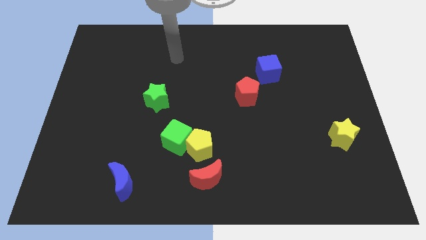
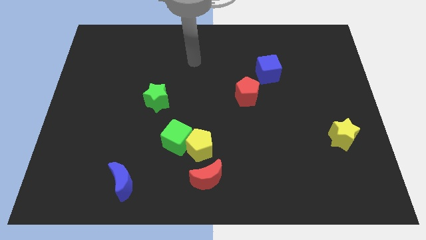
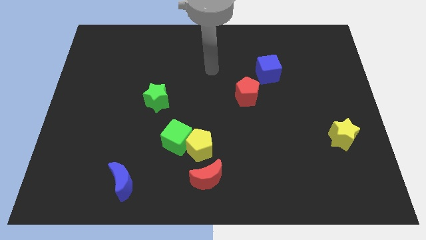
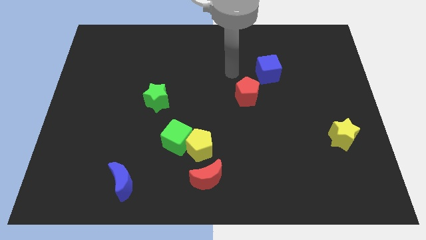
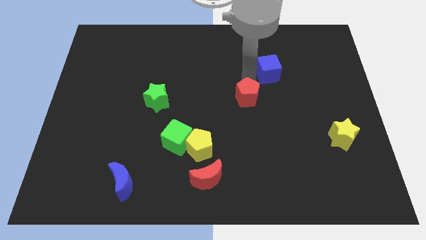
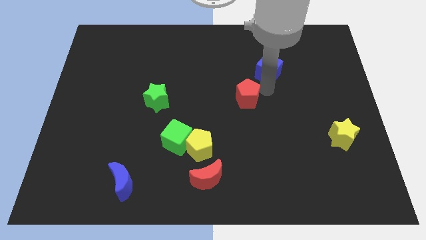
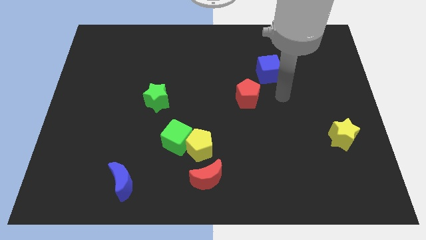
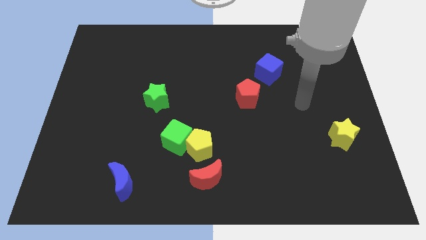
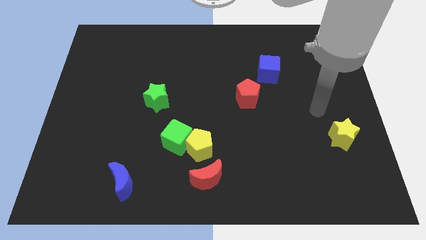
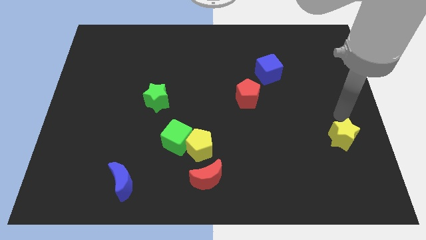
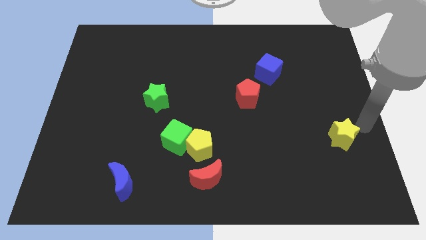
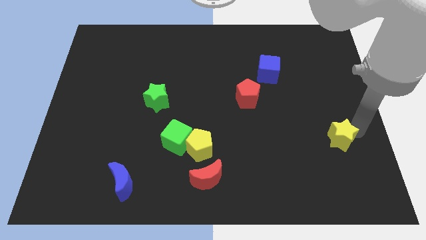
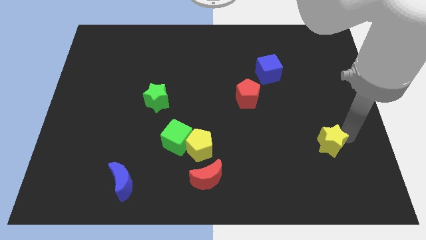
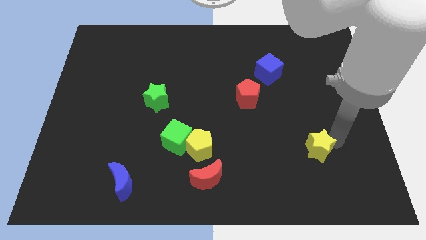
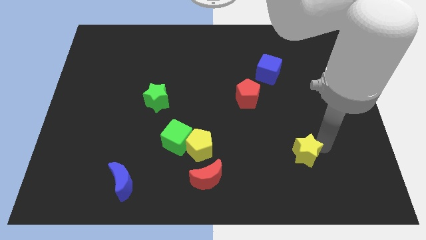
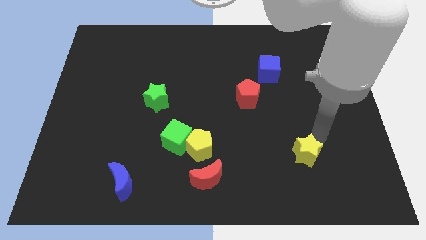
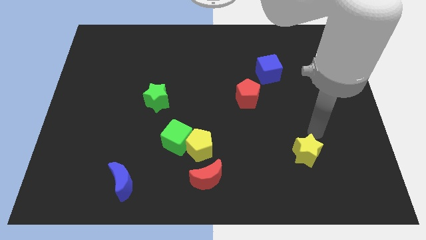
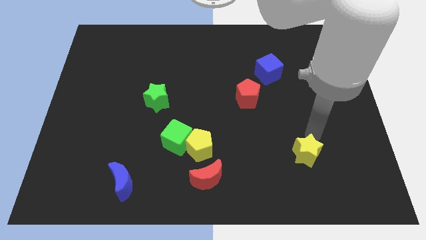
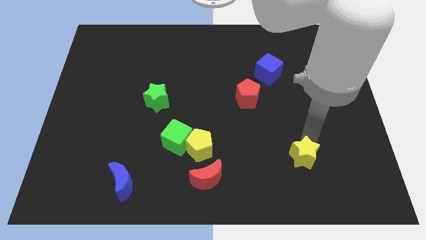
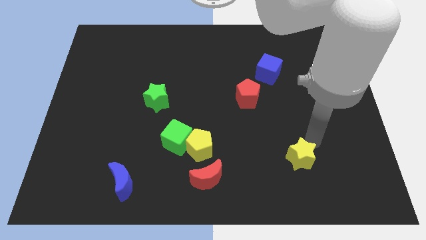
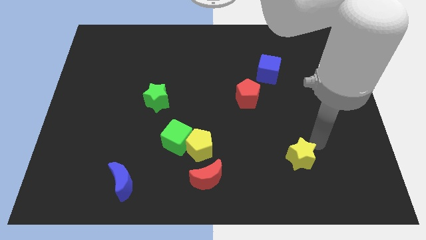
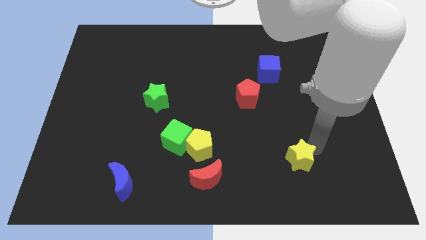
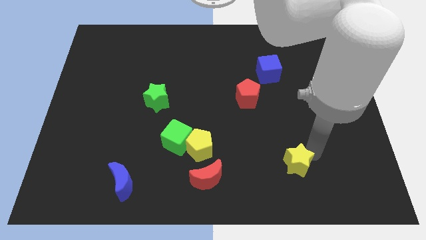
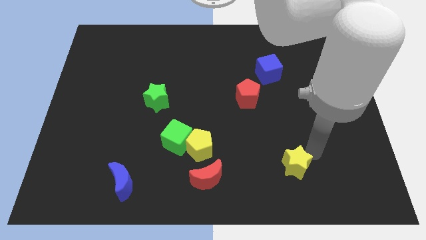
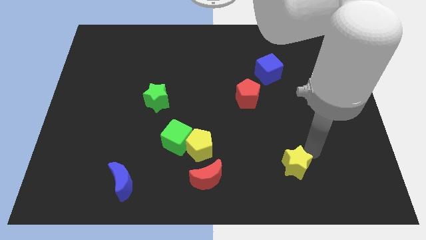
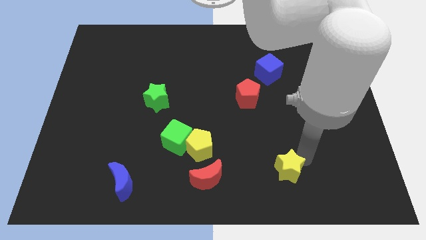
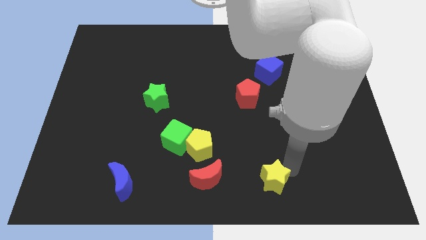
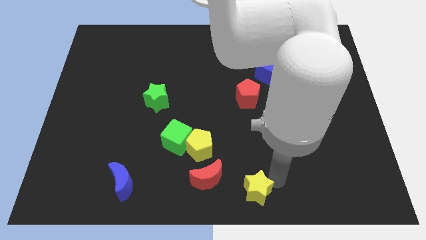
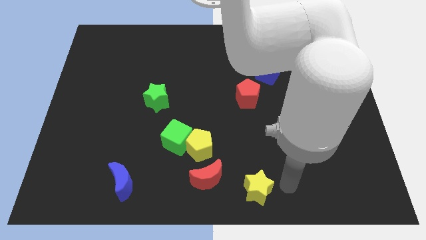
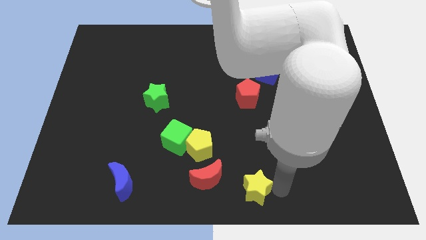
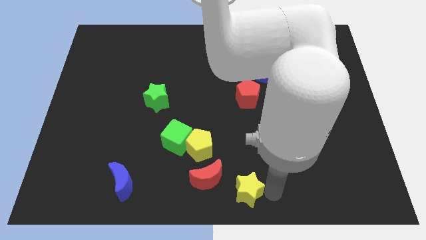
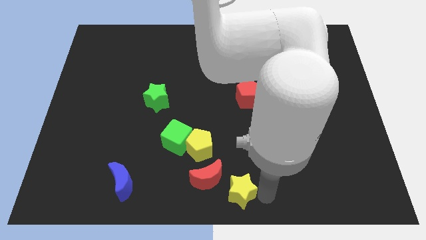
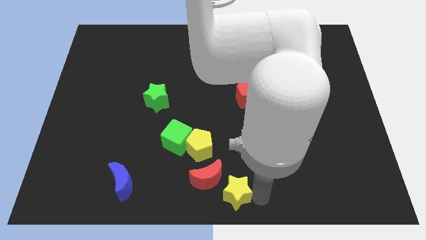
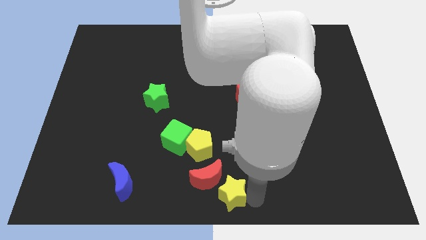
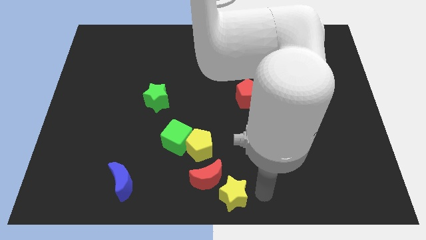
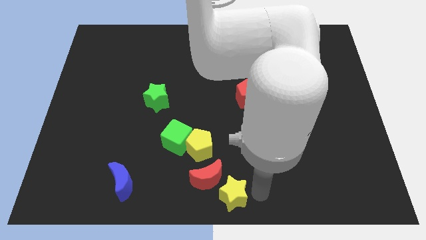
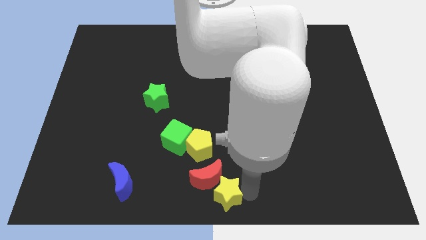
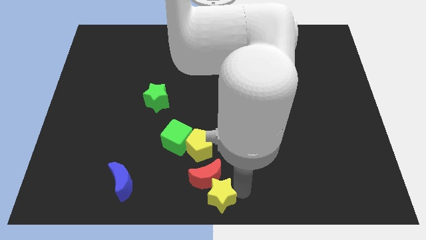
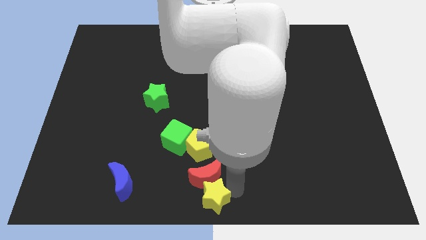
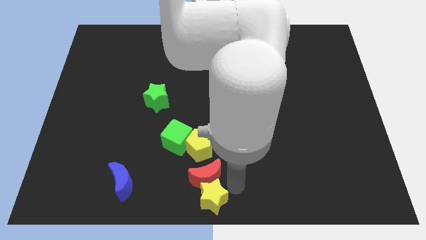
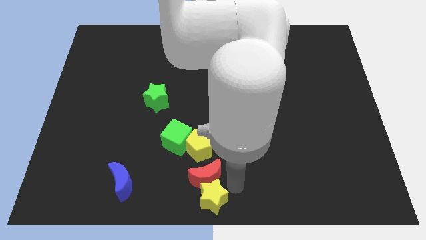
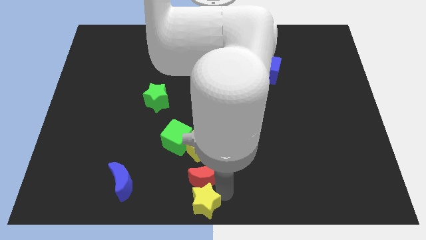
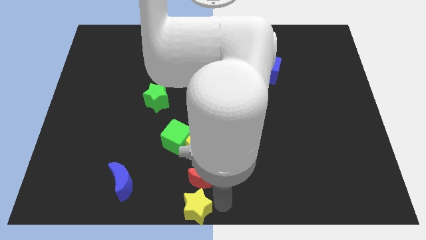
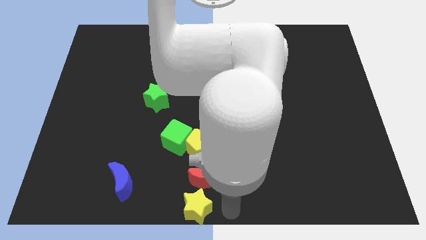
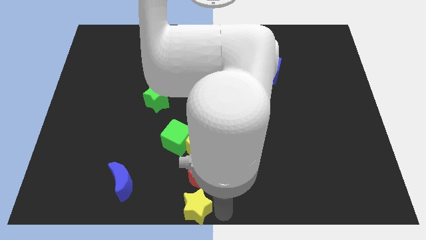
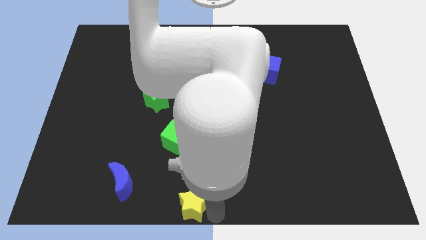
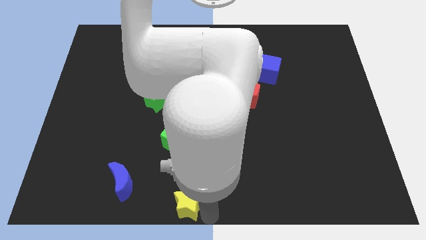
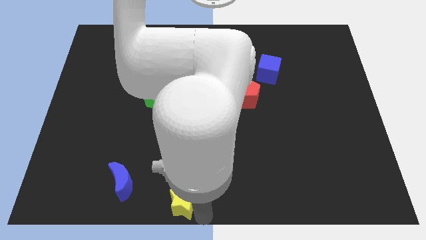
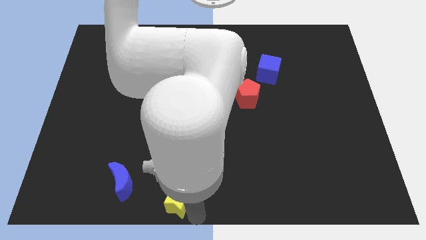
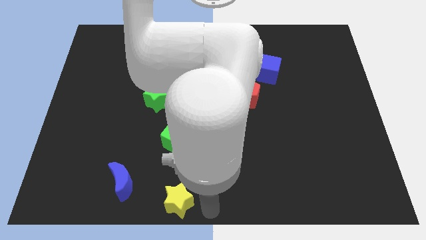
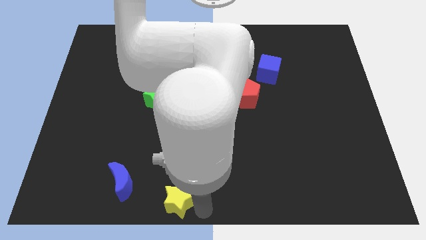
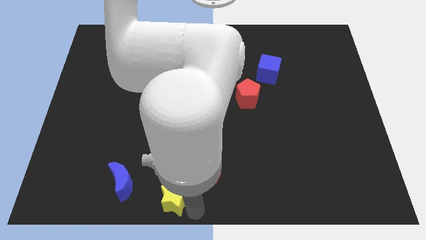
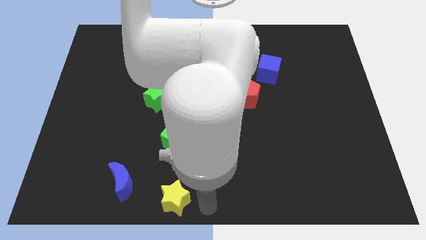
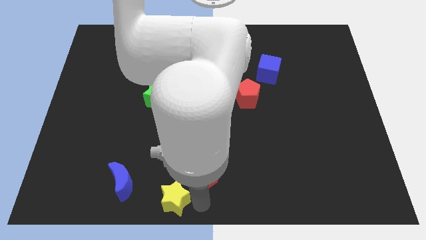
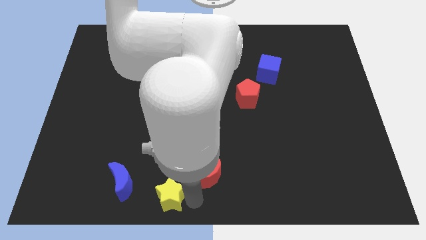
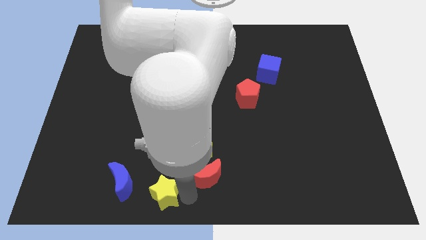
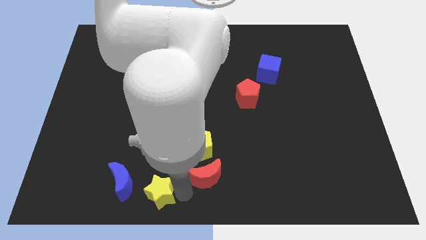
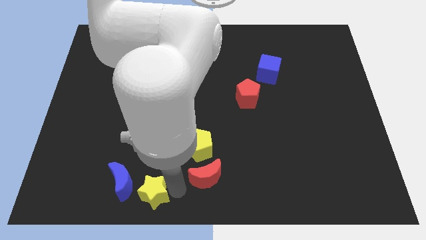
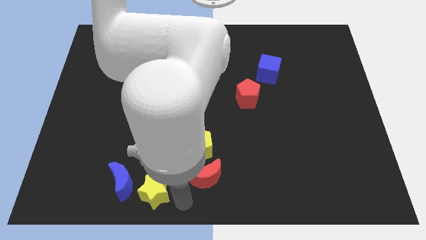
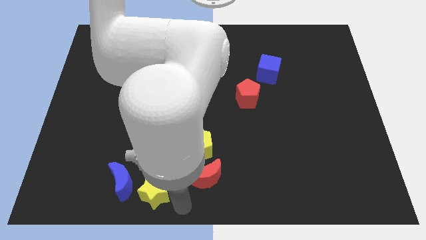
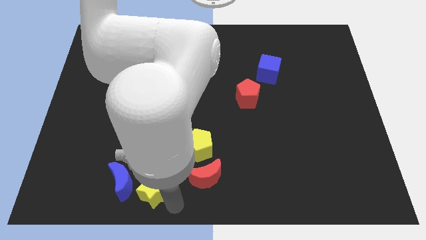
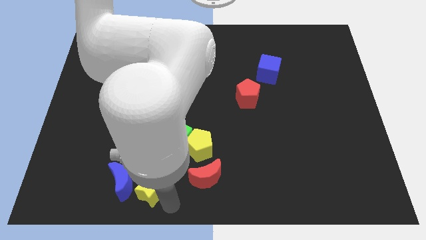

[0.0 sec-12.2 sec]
put the yellow star next to the blue moon

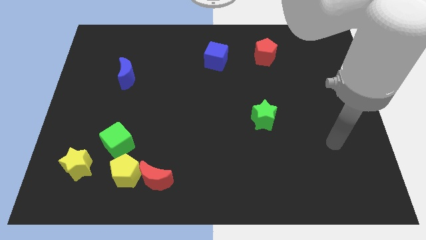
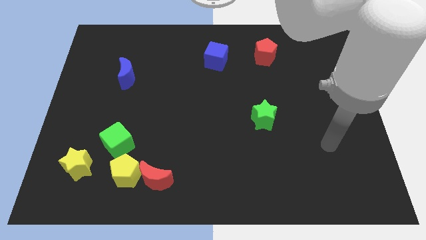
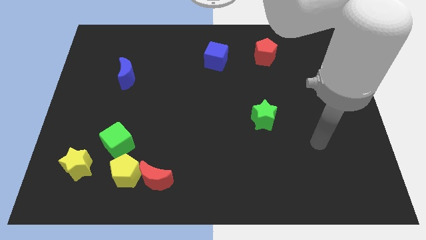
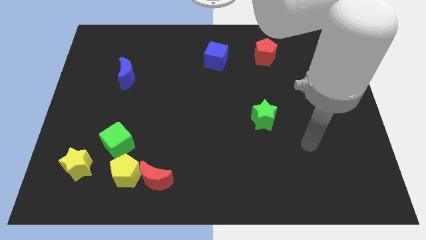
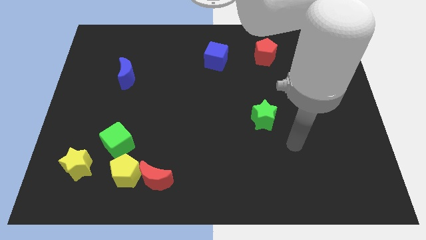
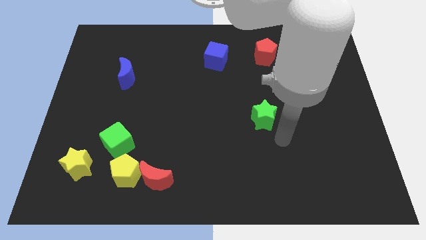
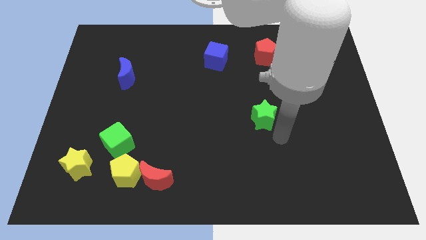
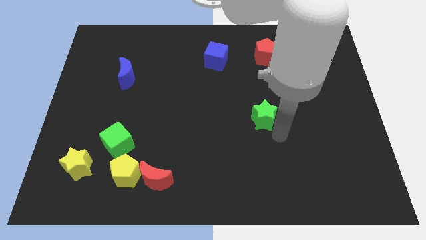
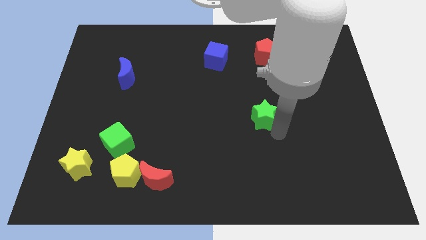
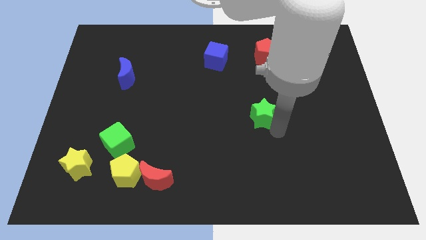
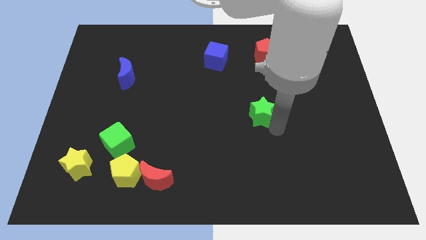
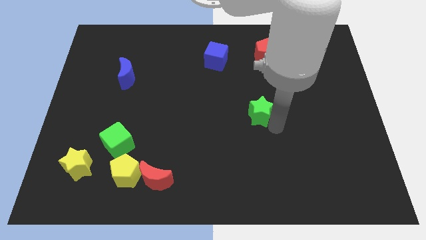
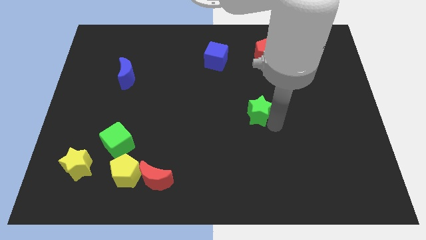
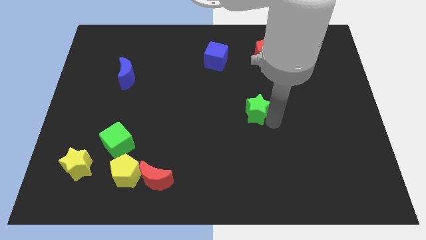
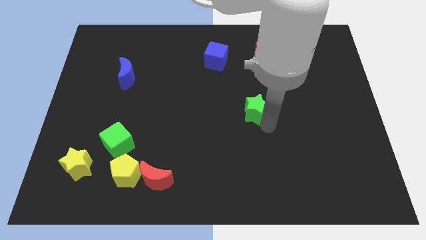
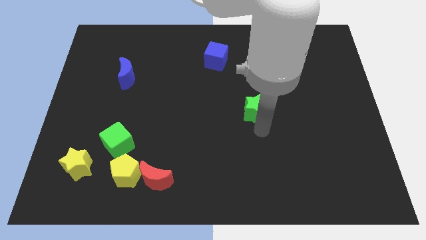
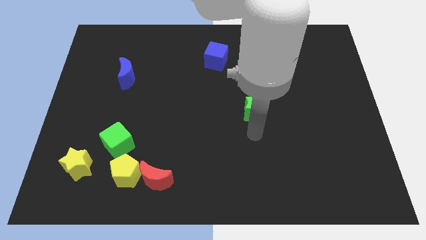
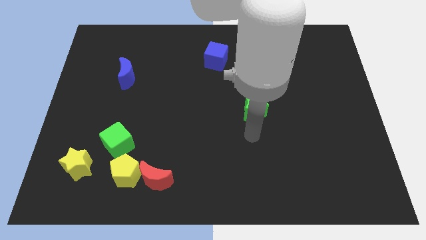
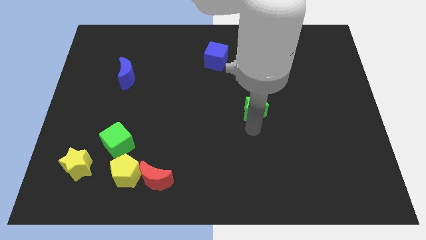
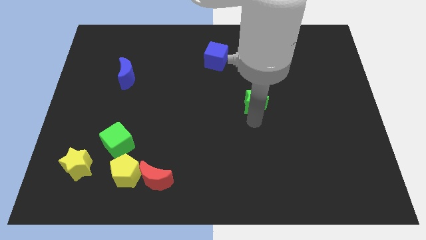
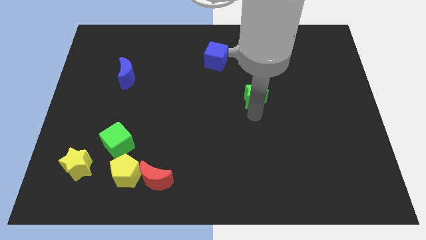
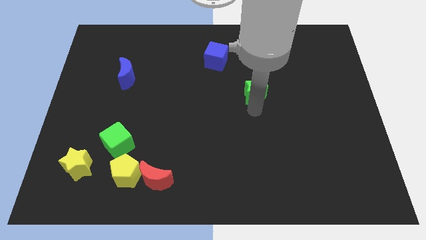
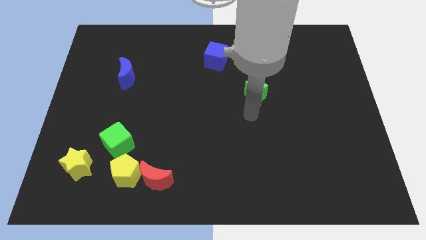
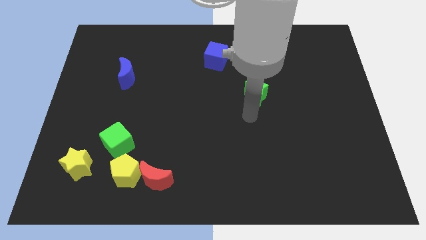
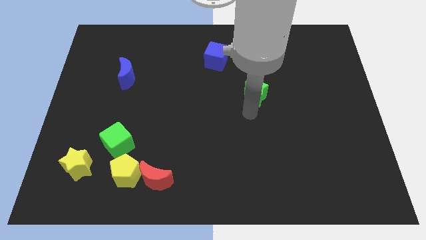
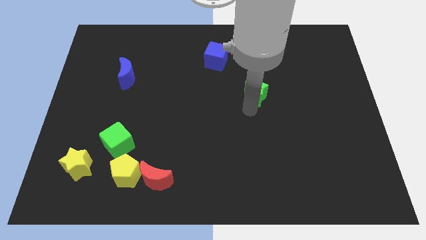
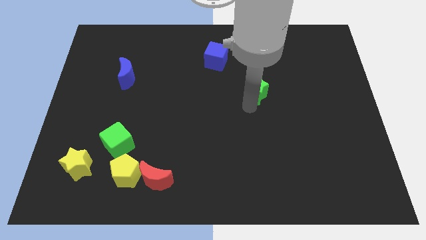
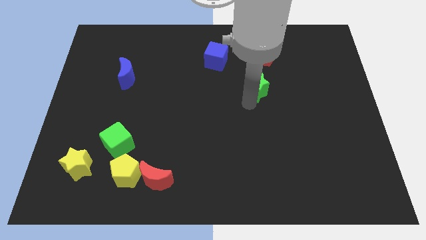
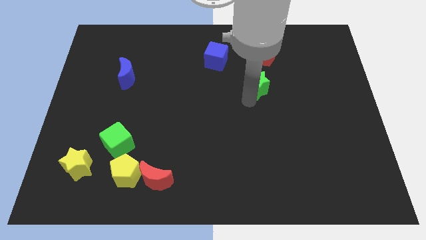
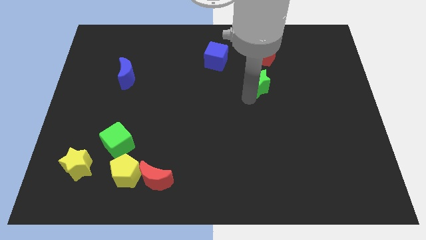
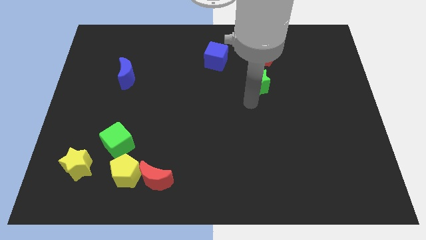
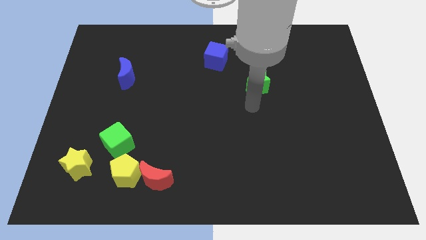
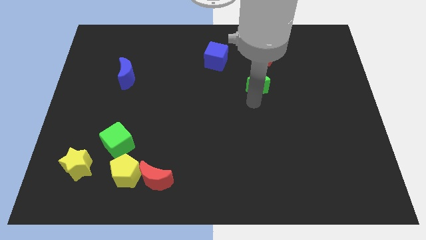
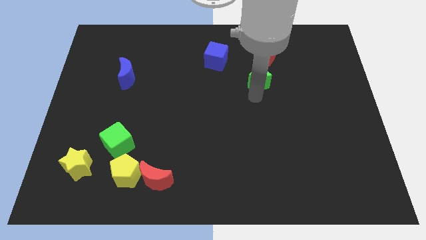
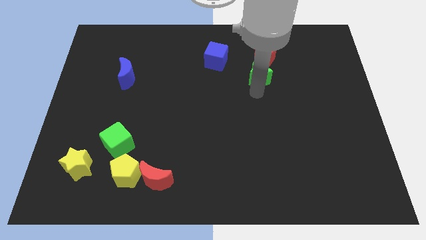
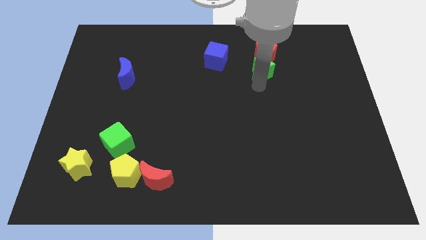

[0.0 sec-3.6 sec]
push the green star next to the red pentagon
